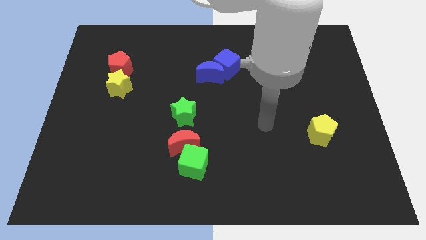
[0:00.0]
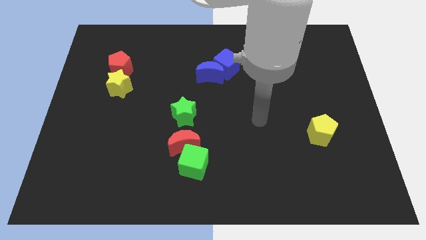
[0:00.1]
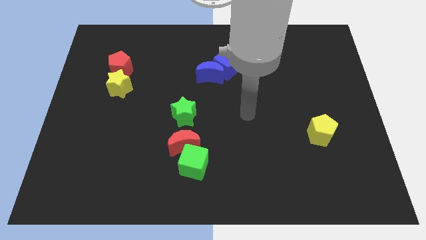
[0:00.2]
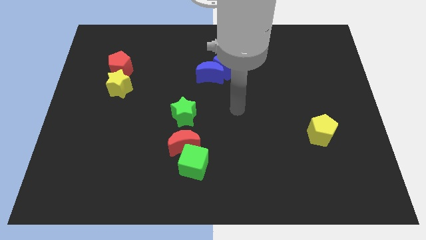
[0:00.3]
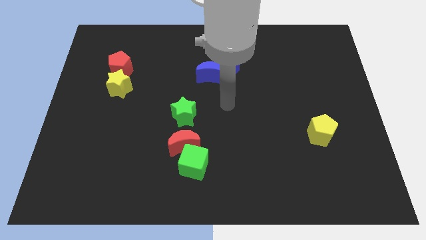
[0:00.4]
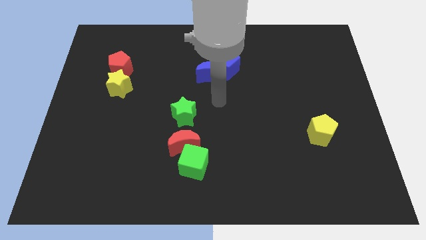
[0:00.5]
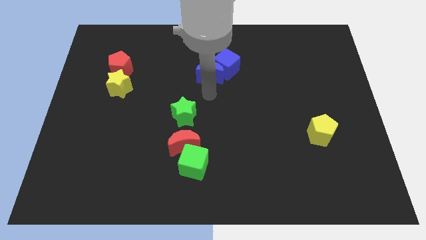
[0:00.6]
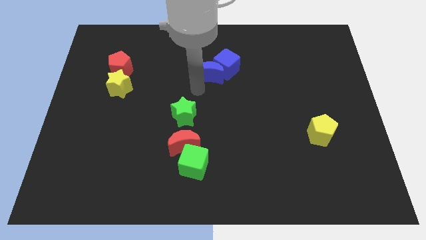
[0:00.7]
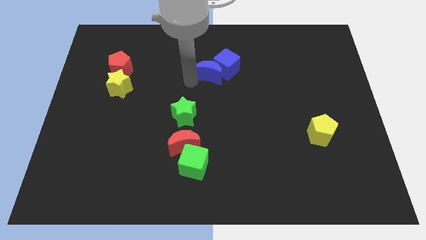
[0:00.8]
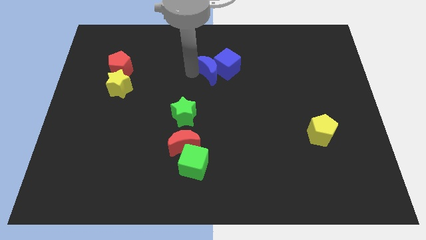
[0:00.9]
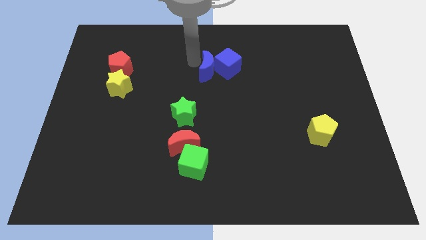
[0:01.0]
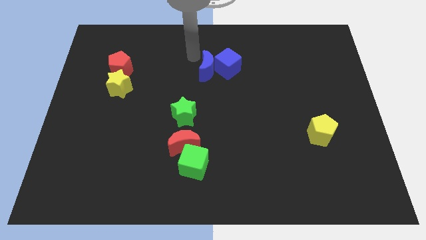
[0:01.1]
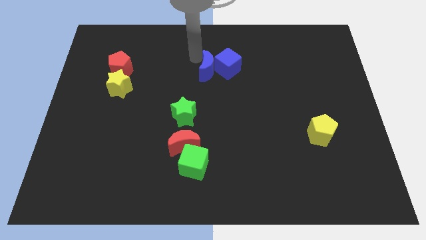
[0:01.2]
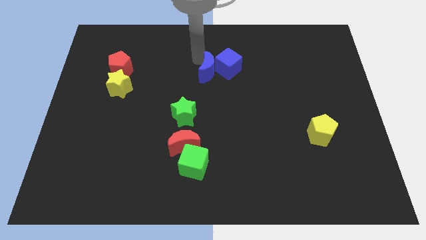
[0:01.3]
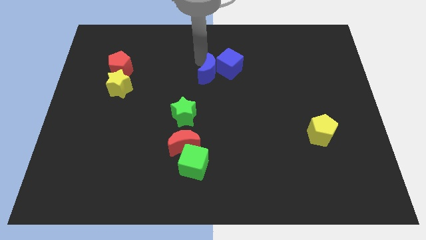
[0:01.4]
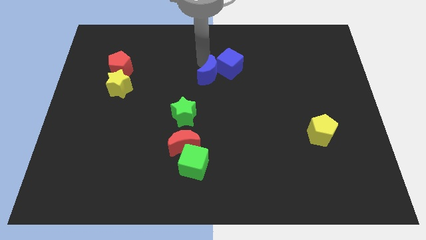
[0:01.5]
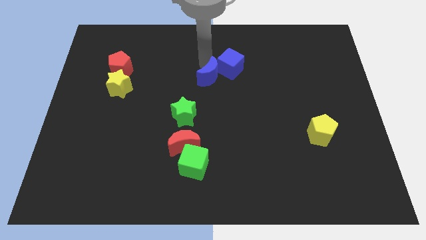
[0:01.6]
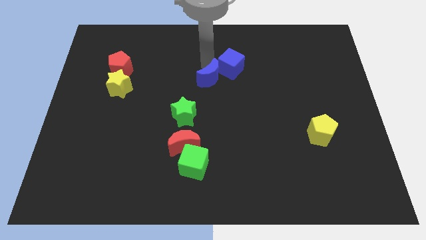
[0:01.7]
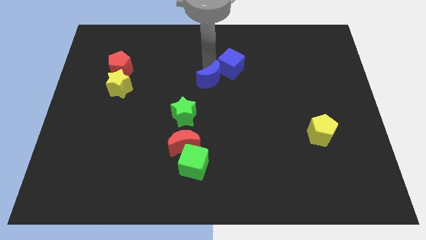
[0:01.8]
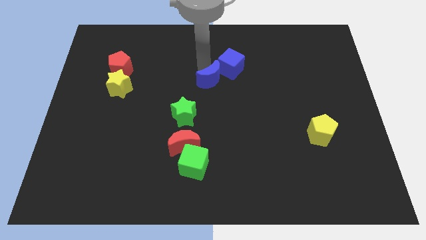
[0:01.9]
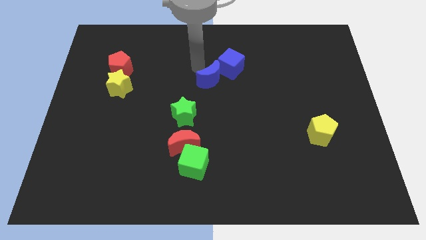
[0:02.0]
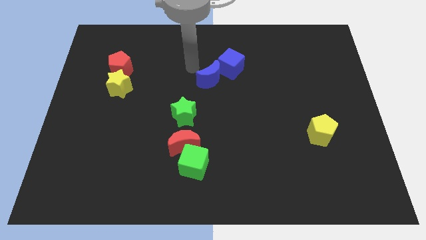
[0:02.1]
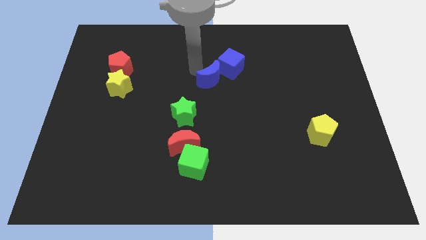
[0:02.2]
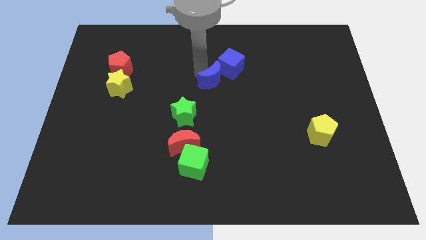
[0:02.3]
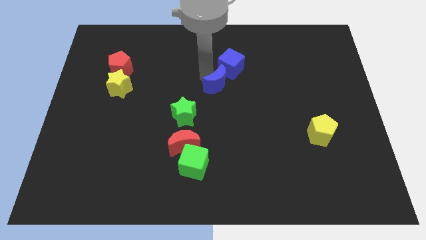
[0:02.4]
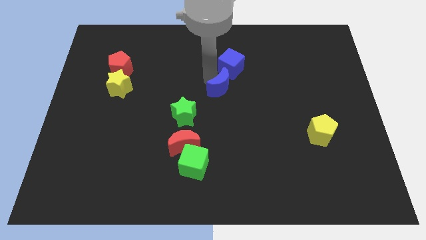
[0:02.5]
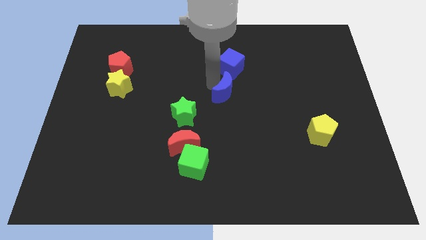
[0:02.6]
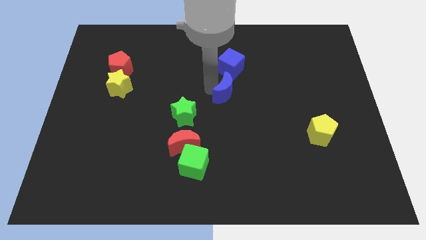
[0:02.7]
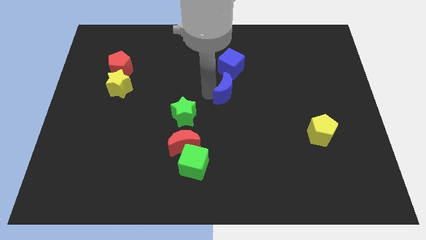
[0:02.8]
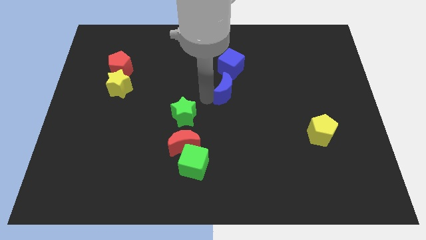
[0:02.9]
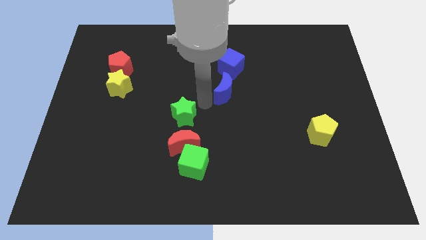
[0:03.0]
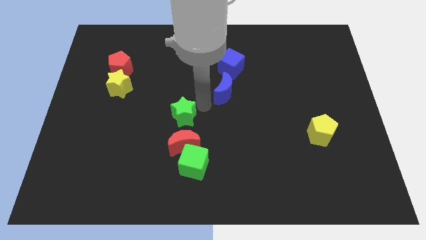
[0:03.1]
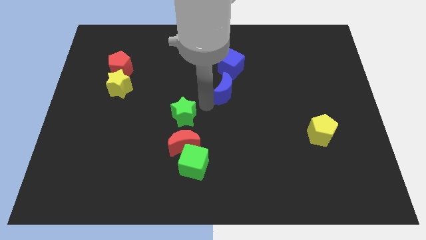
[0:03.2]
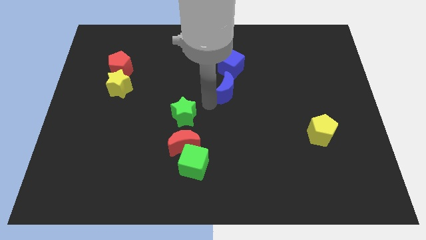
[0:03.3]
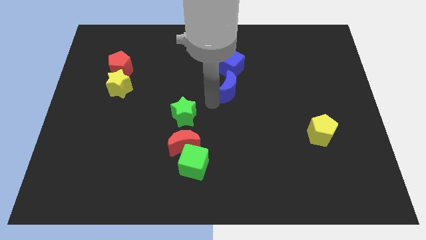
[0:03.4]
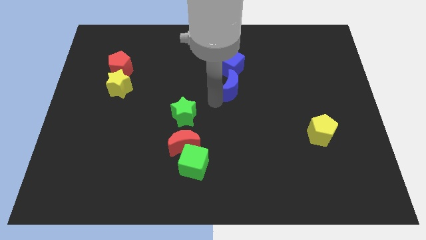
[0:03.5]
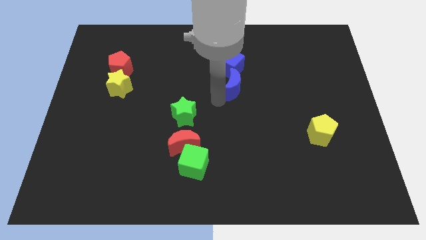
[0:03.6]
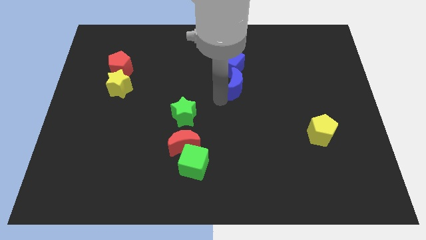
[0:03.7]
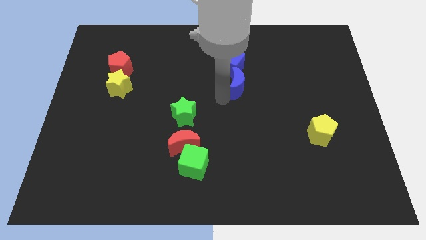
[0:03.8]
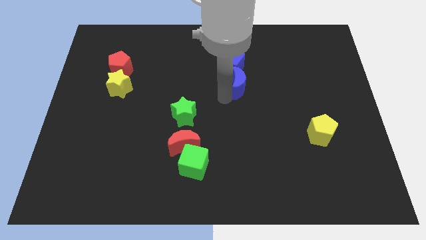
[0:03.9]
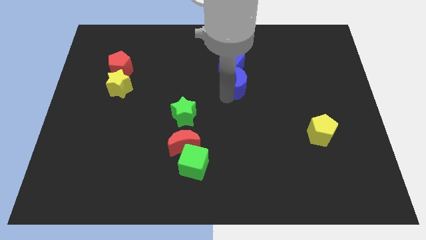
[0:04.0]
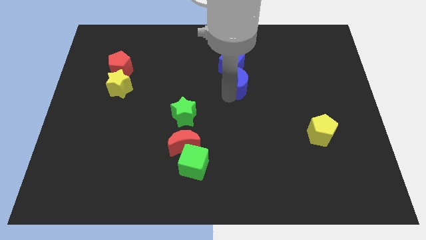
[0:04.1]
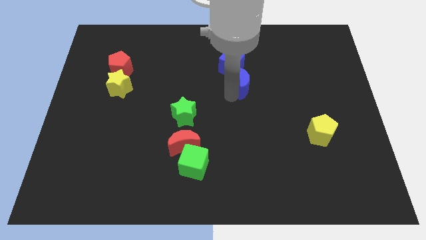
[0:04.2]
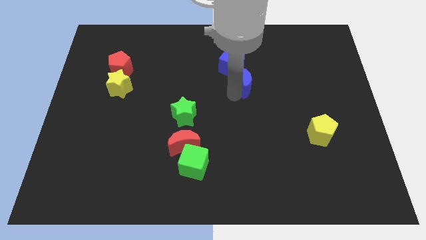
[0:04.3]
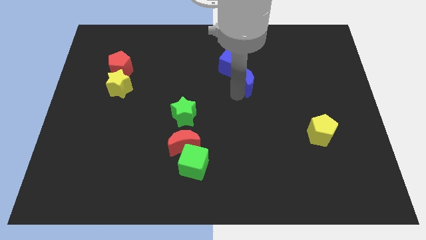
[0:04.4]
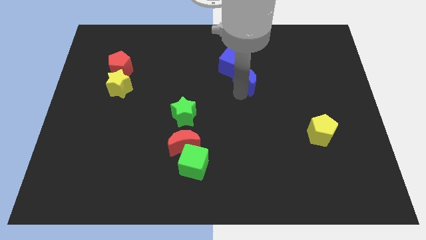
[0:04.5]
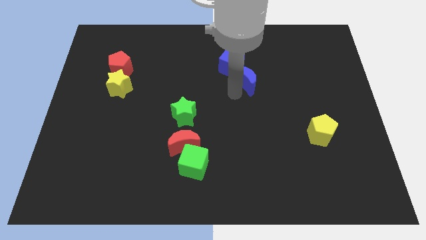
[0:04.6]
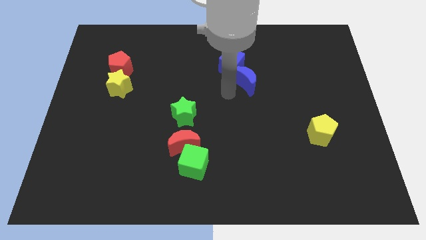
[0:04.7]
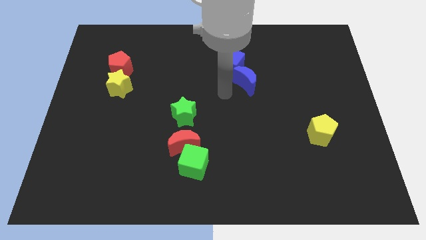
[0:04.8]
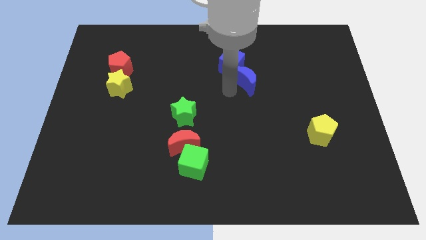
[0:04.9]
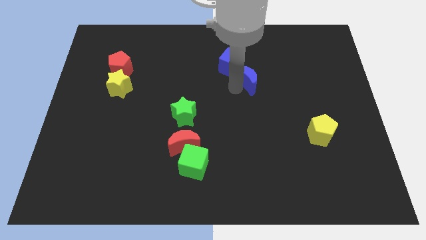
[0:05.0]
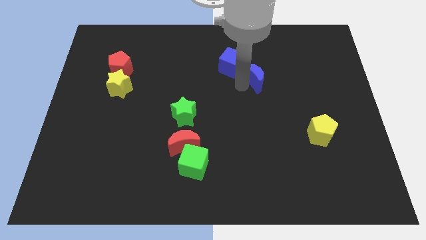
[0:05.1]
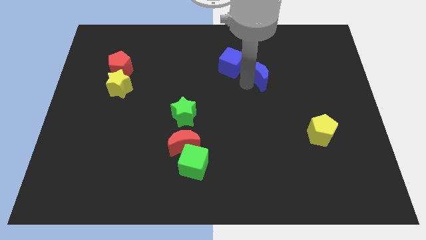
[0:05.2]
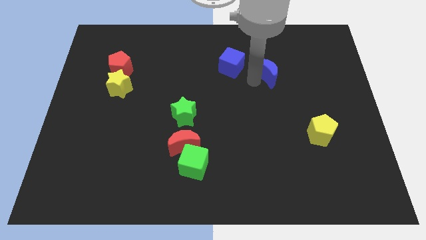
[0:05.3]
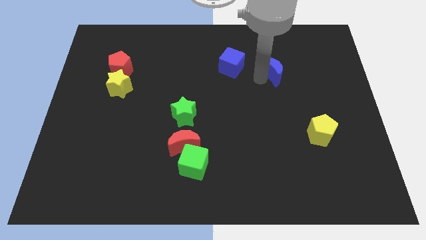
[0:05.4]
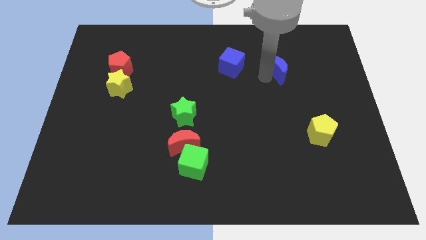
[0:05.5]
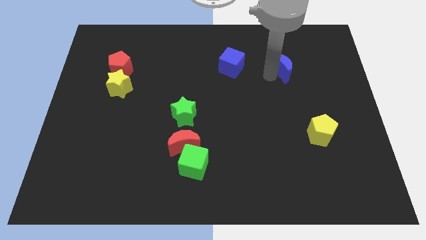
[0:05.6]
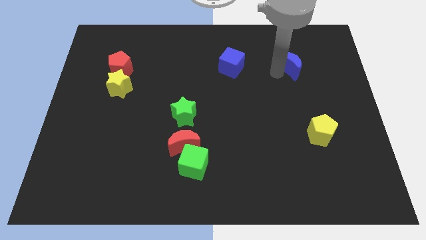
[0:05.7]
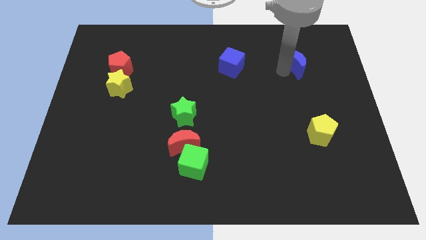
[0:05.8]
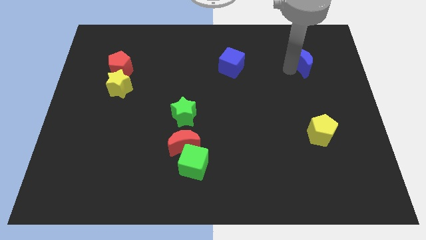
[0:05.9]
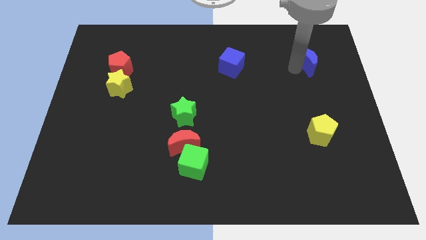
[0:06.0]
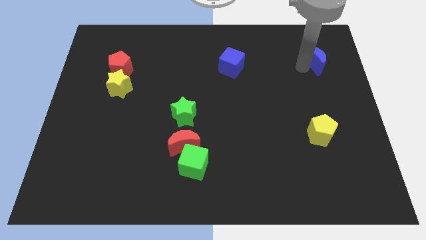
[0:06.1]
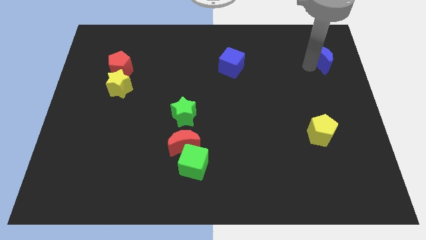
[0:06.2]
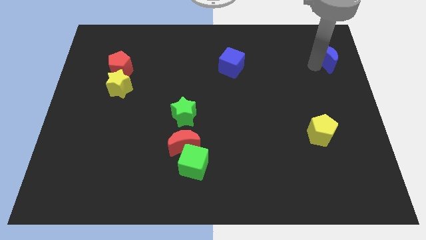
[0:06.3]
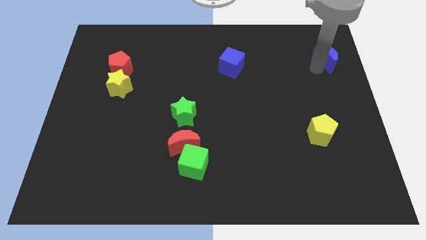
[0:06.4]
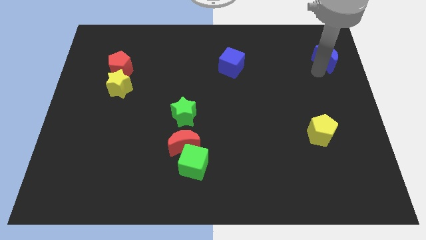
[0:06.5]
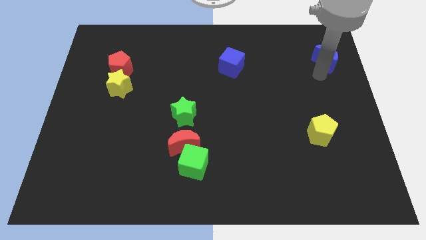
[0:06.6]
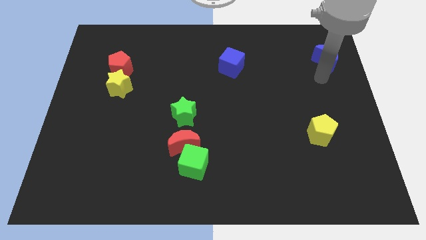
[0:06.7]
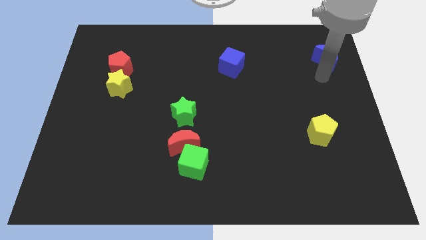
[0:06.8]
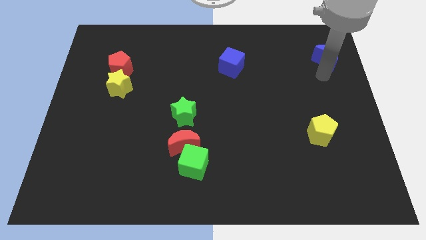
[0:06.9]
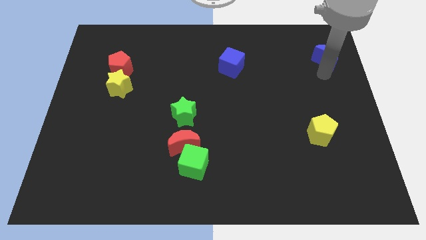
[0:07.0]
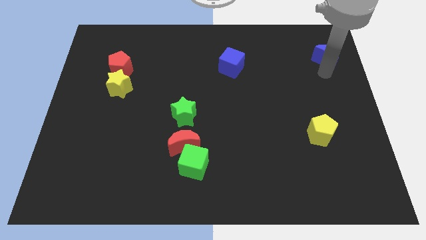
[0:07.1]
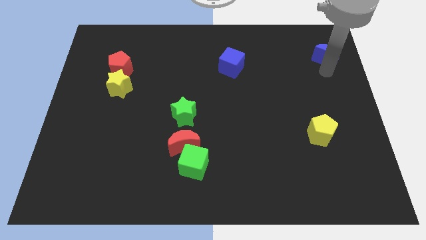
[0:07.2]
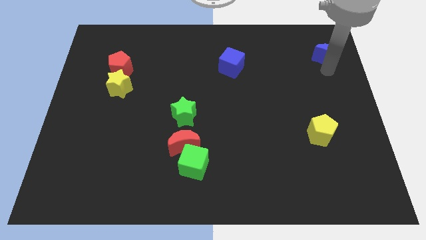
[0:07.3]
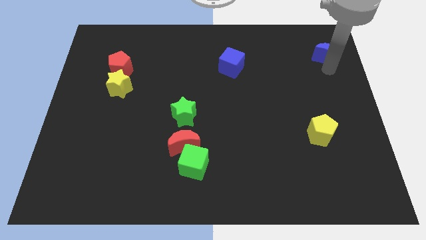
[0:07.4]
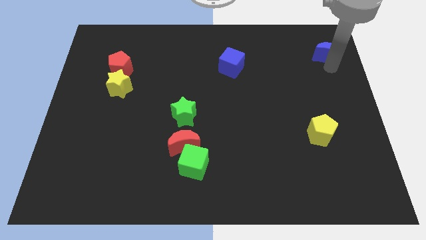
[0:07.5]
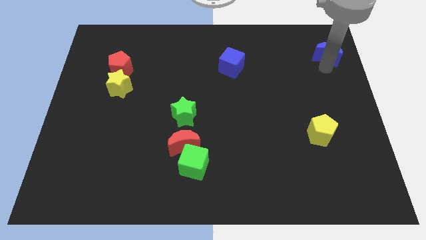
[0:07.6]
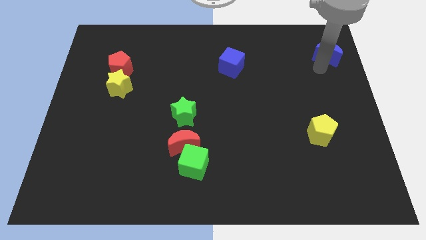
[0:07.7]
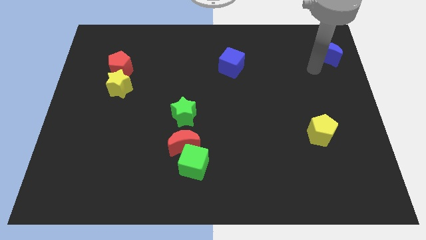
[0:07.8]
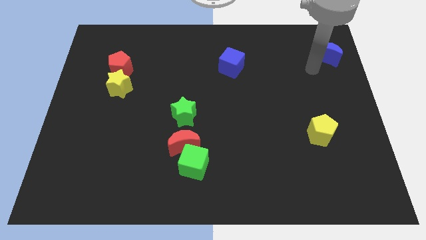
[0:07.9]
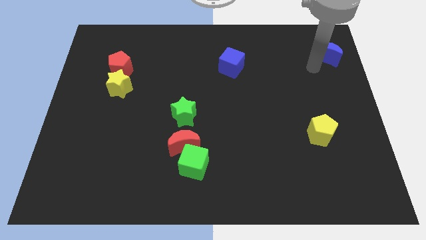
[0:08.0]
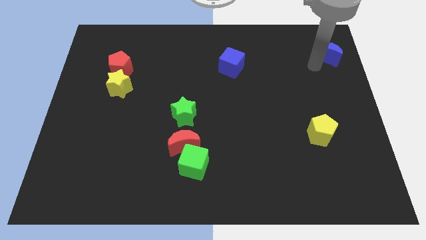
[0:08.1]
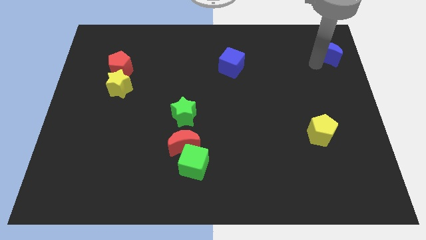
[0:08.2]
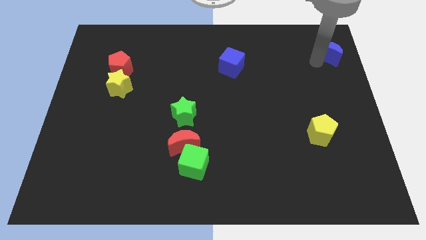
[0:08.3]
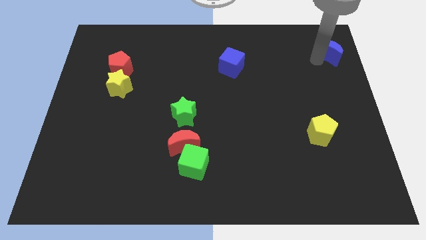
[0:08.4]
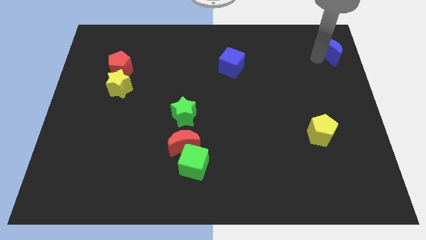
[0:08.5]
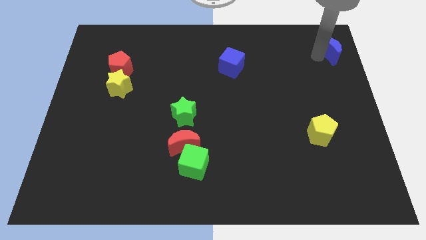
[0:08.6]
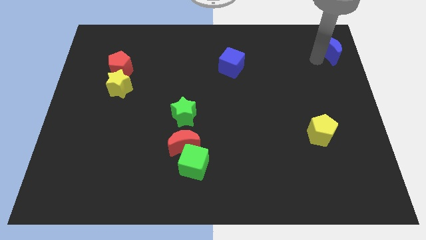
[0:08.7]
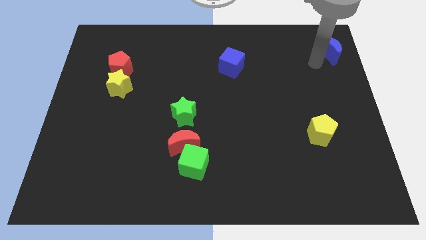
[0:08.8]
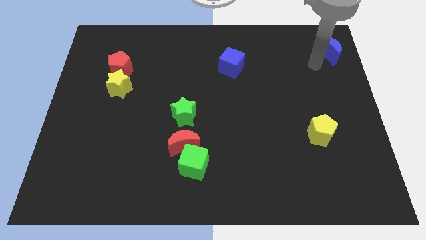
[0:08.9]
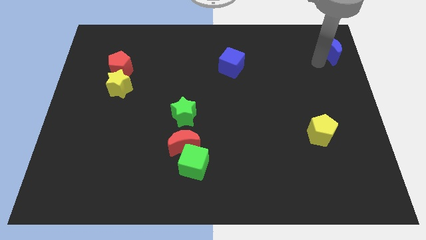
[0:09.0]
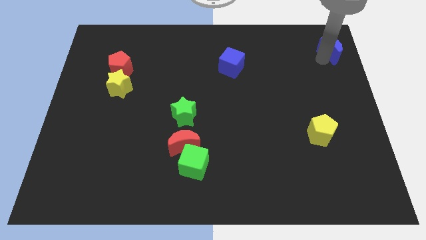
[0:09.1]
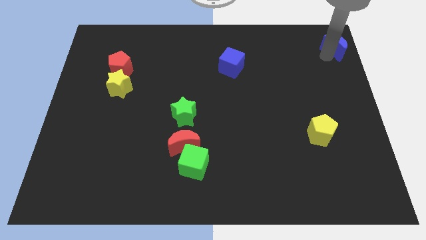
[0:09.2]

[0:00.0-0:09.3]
slide the blue moon to the top right
